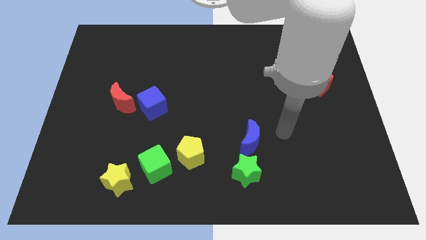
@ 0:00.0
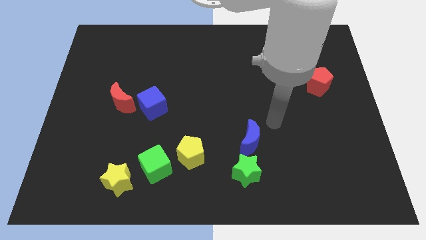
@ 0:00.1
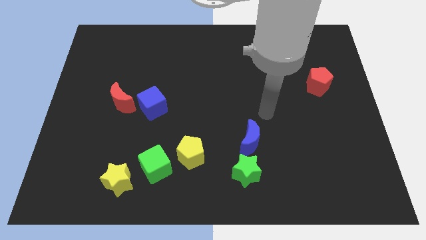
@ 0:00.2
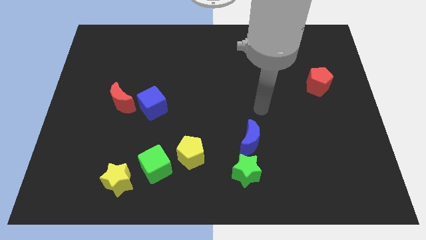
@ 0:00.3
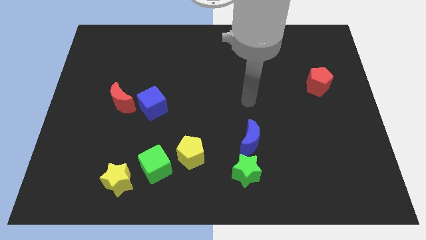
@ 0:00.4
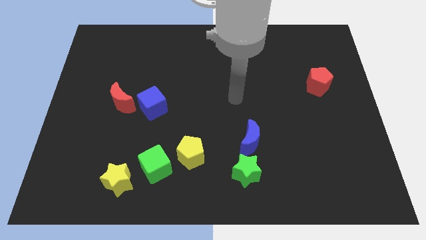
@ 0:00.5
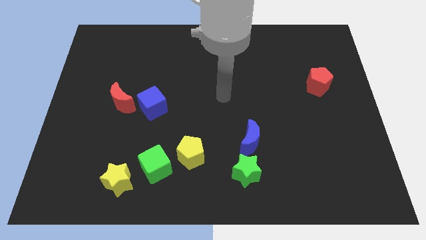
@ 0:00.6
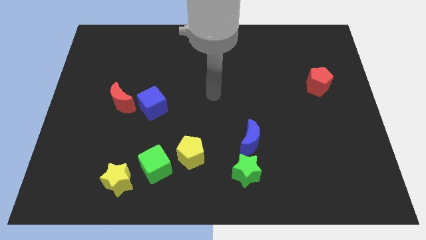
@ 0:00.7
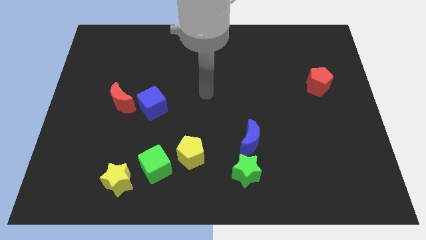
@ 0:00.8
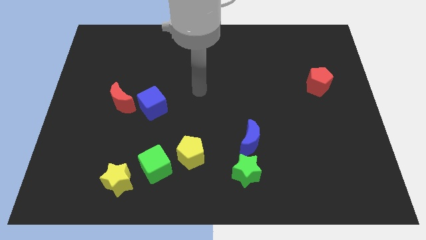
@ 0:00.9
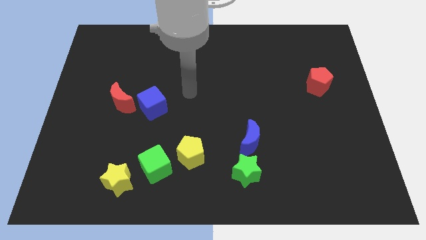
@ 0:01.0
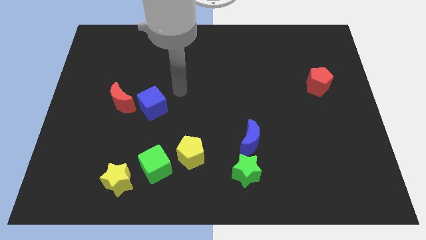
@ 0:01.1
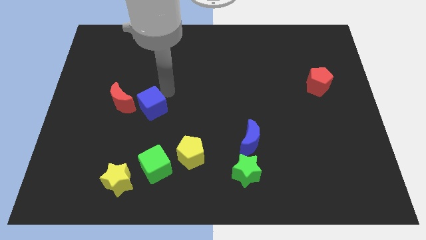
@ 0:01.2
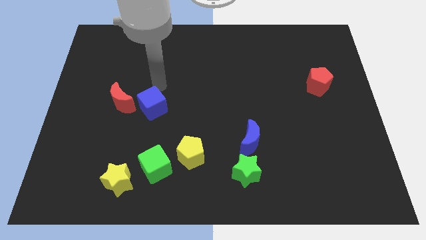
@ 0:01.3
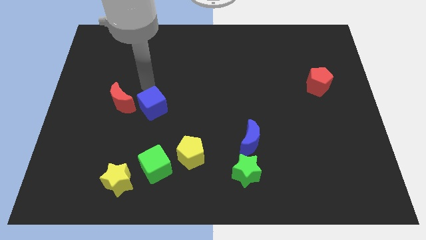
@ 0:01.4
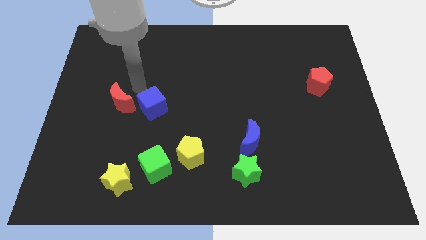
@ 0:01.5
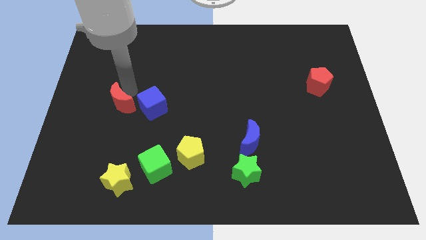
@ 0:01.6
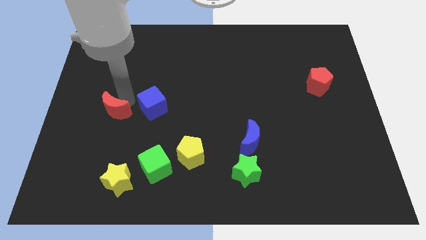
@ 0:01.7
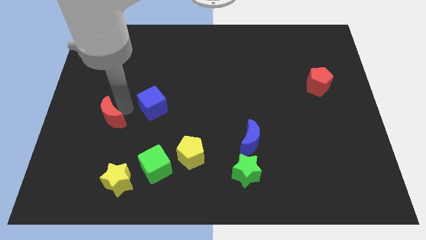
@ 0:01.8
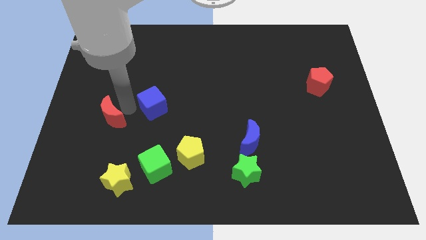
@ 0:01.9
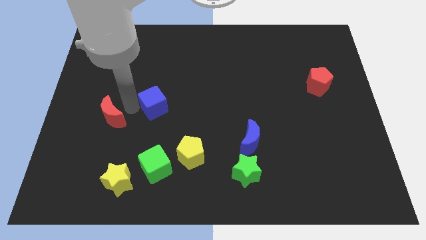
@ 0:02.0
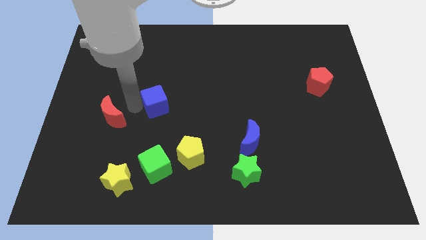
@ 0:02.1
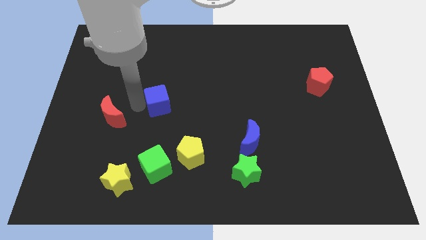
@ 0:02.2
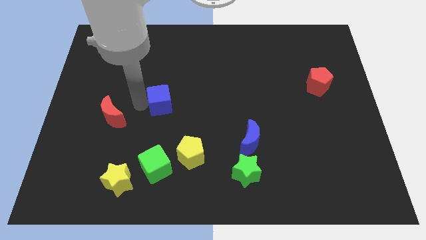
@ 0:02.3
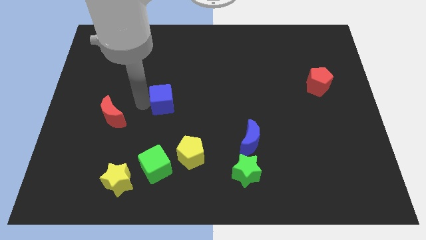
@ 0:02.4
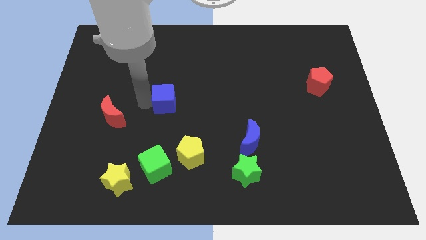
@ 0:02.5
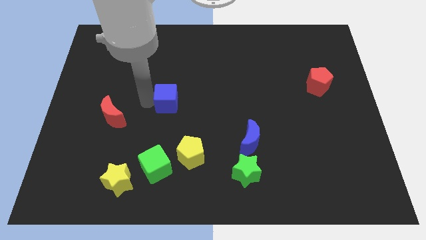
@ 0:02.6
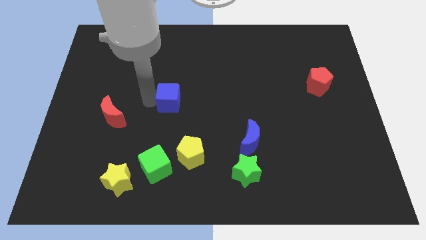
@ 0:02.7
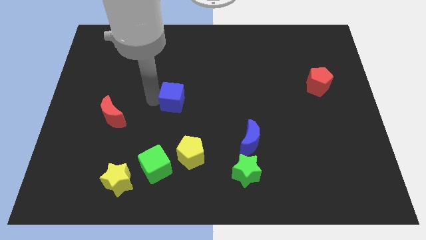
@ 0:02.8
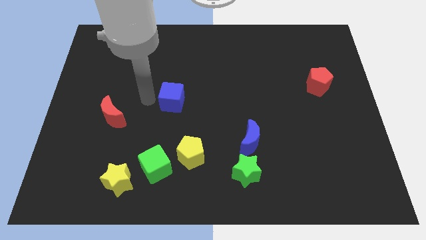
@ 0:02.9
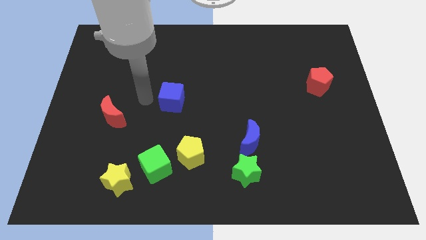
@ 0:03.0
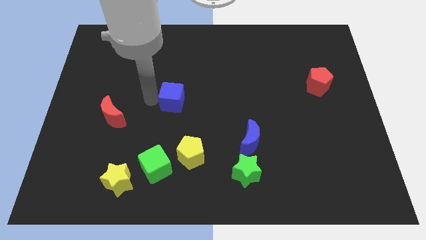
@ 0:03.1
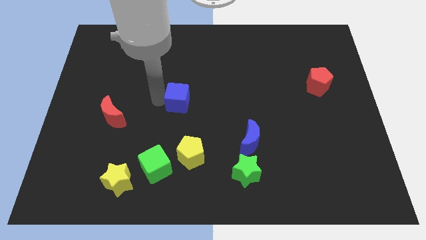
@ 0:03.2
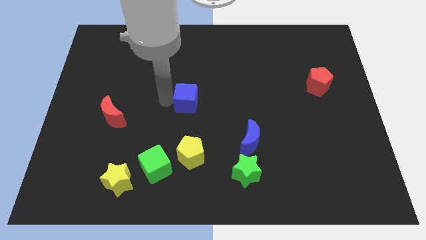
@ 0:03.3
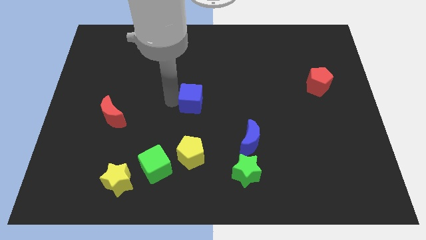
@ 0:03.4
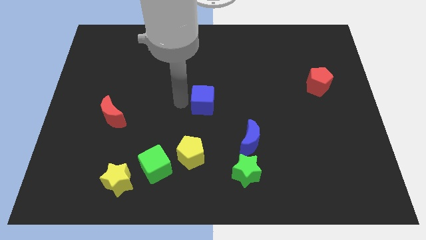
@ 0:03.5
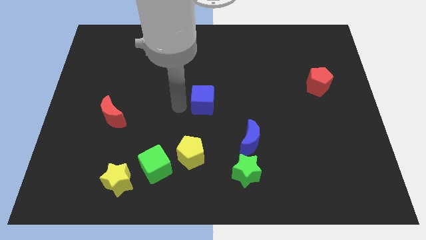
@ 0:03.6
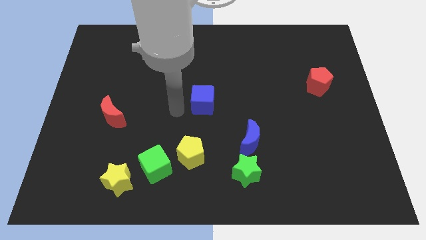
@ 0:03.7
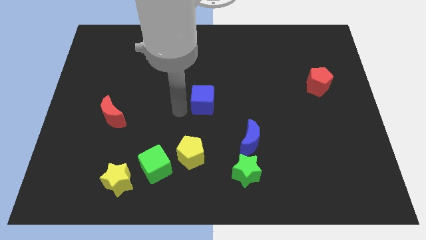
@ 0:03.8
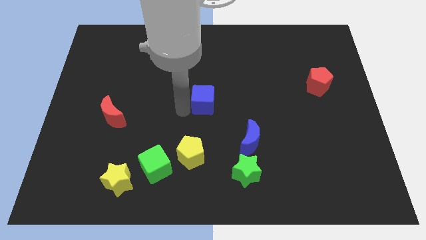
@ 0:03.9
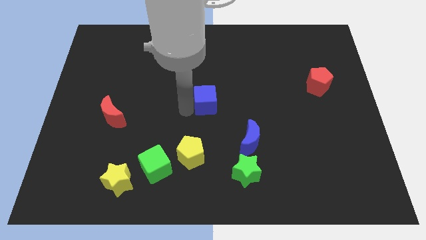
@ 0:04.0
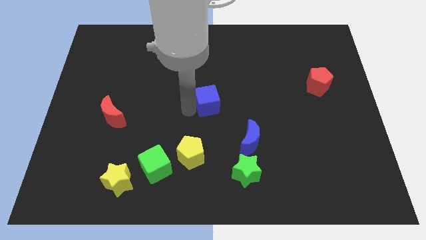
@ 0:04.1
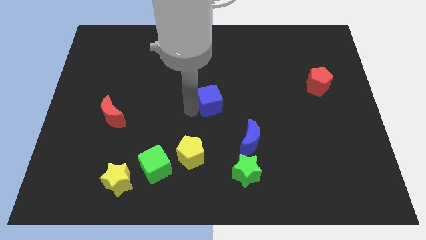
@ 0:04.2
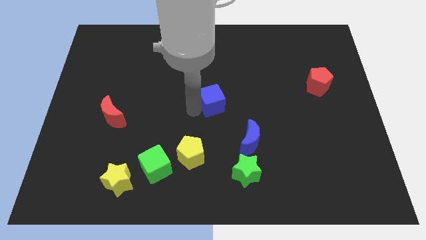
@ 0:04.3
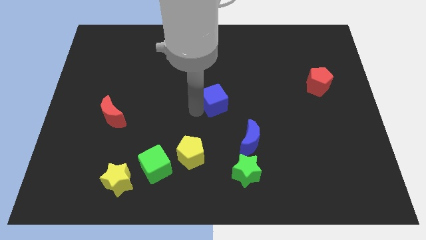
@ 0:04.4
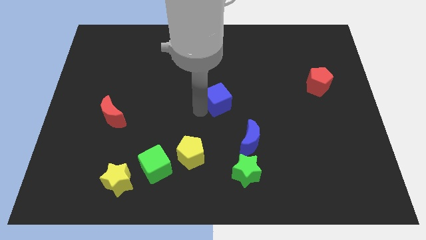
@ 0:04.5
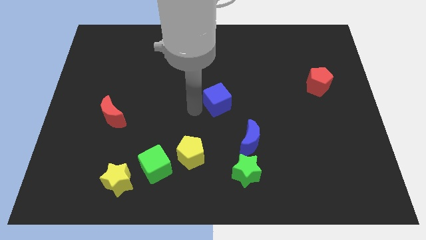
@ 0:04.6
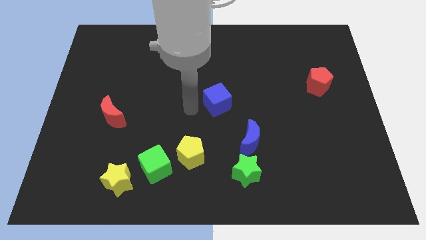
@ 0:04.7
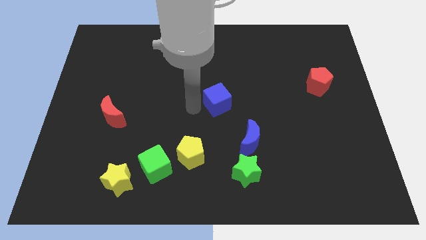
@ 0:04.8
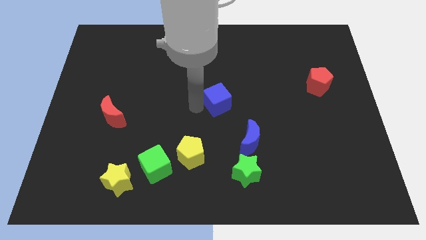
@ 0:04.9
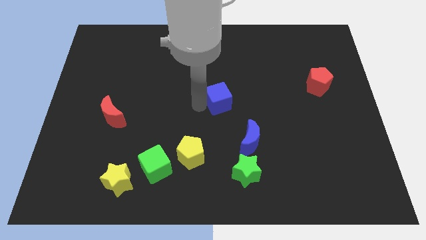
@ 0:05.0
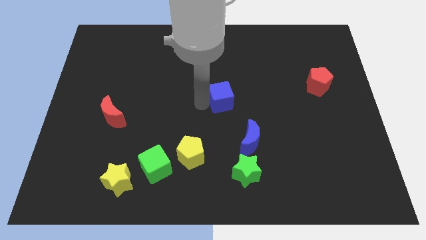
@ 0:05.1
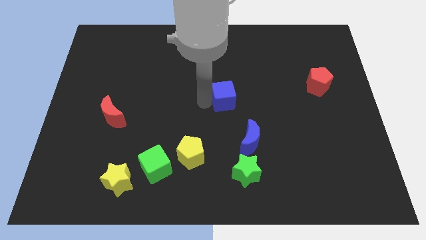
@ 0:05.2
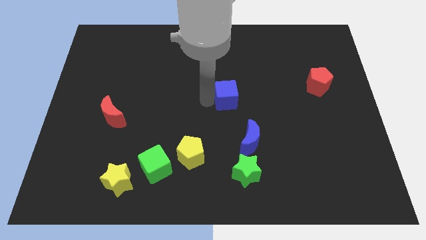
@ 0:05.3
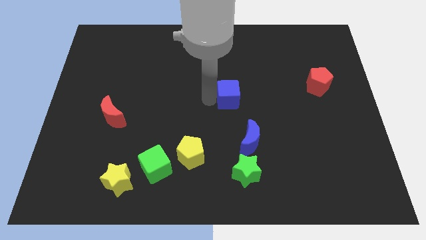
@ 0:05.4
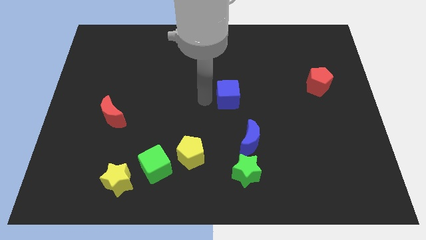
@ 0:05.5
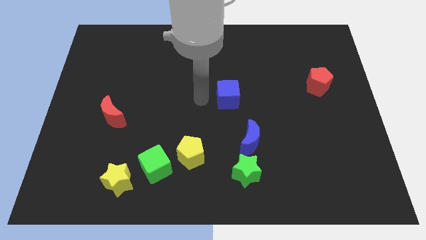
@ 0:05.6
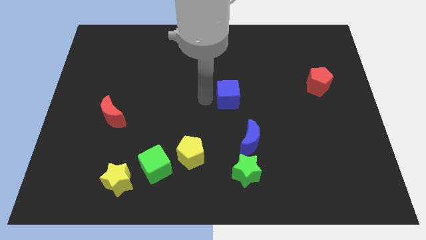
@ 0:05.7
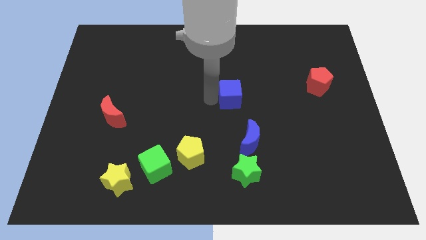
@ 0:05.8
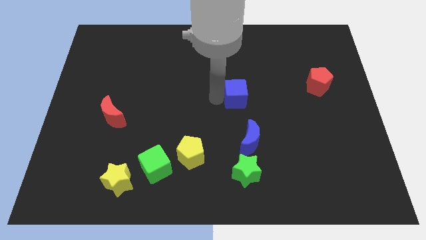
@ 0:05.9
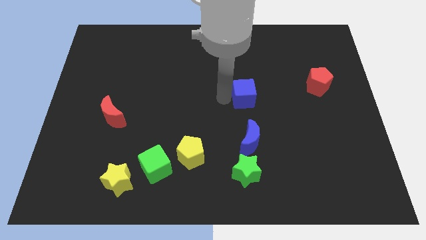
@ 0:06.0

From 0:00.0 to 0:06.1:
move the blue cube to the right

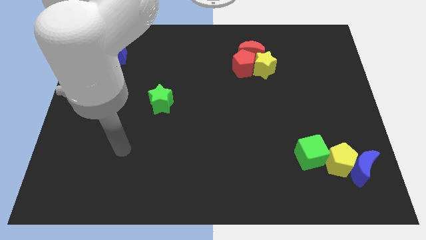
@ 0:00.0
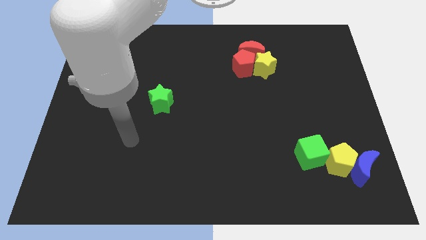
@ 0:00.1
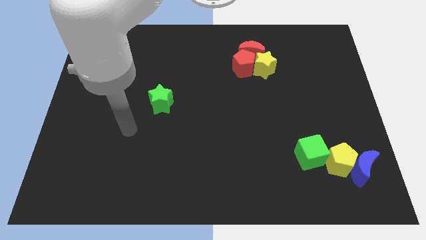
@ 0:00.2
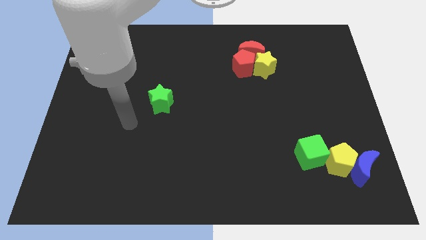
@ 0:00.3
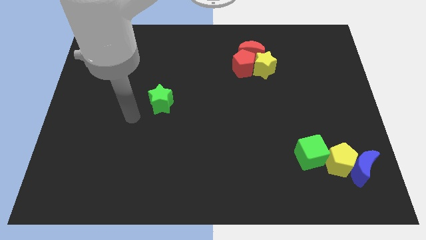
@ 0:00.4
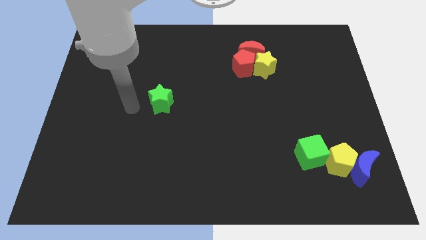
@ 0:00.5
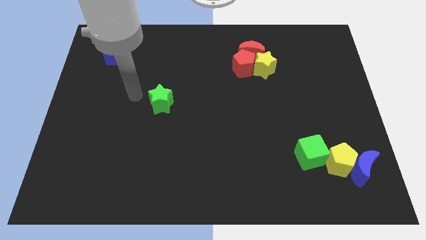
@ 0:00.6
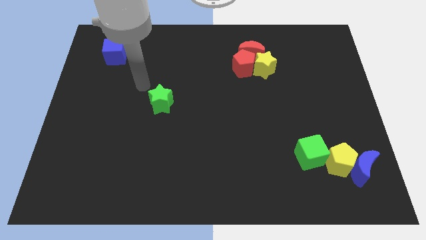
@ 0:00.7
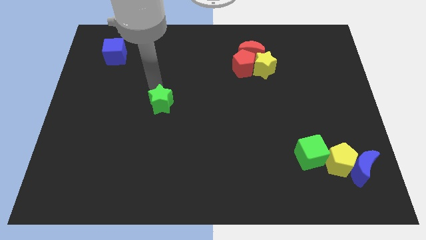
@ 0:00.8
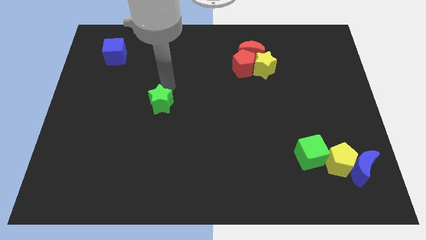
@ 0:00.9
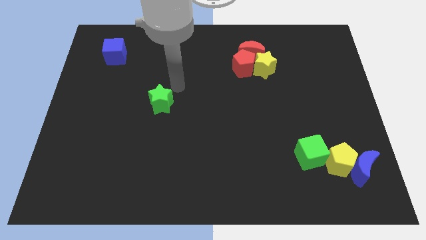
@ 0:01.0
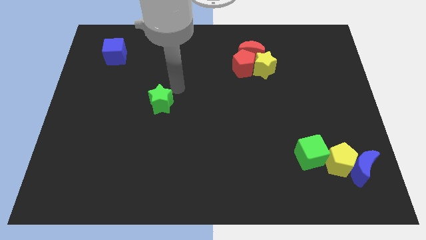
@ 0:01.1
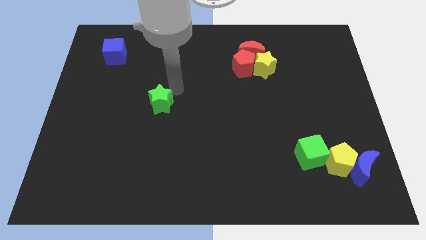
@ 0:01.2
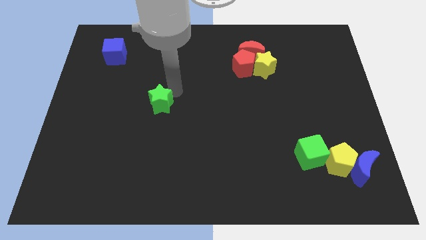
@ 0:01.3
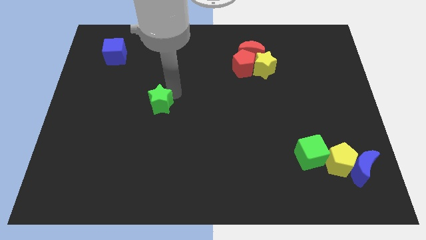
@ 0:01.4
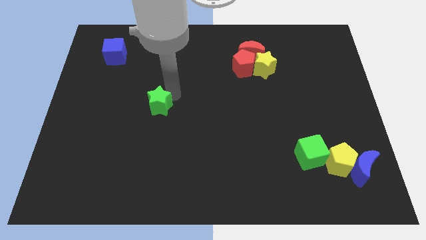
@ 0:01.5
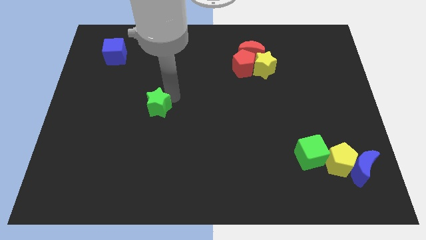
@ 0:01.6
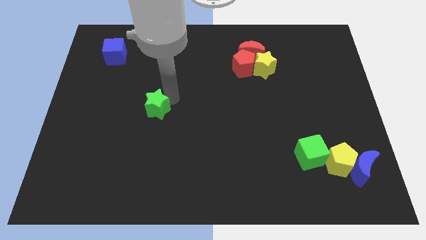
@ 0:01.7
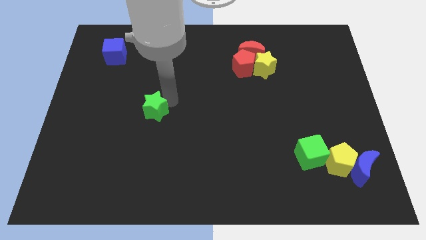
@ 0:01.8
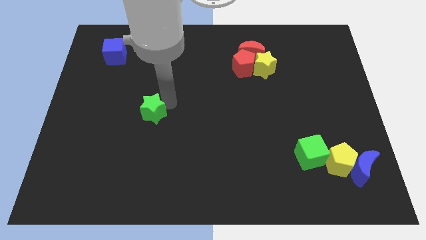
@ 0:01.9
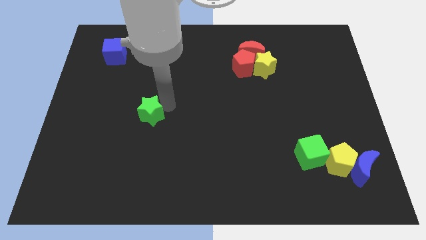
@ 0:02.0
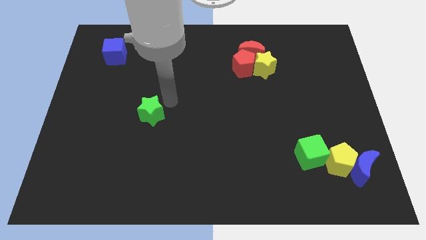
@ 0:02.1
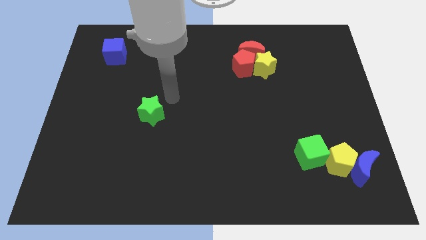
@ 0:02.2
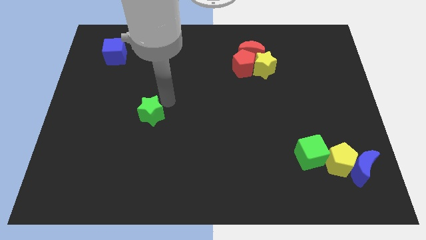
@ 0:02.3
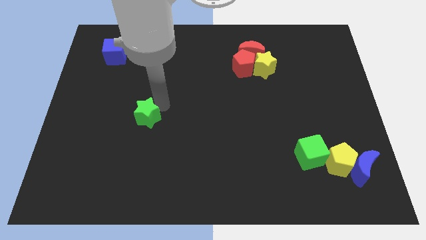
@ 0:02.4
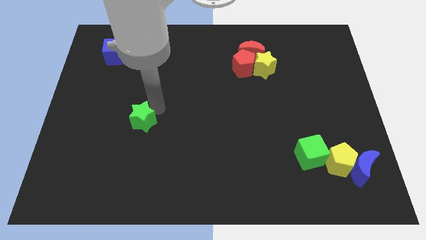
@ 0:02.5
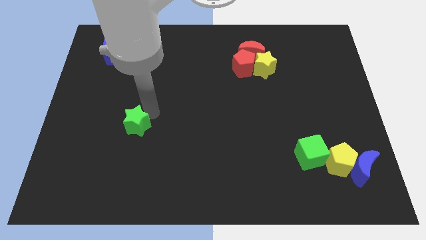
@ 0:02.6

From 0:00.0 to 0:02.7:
slide the green star diagonally down and left slightly
